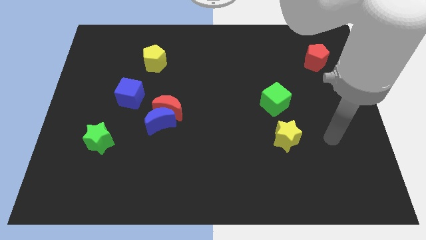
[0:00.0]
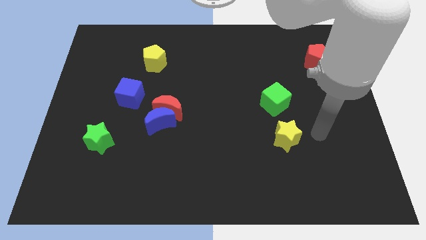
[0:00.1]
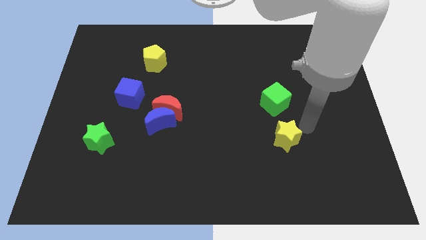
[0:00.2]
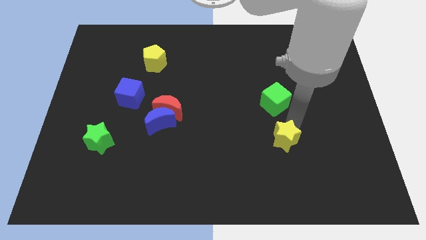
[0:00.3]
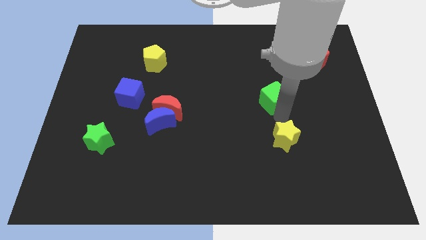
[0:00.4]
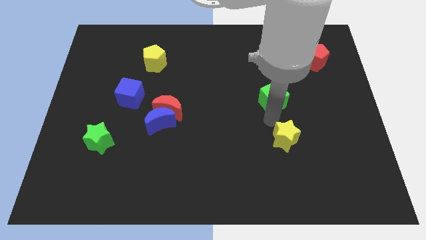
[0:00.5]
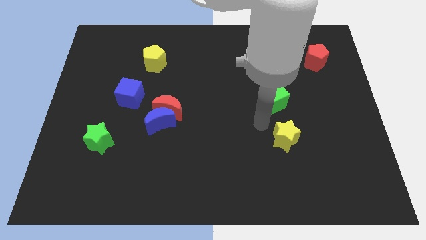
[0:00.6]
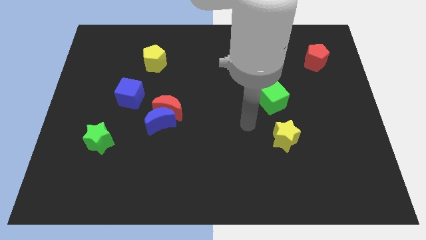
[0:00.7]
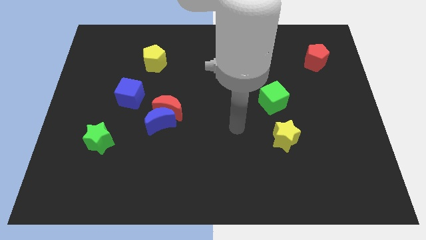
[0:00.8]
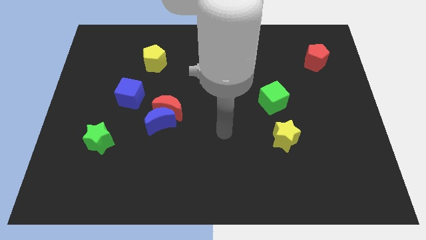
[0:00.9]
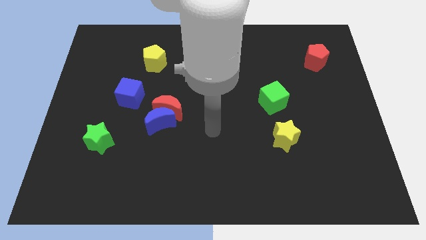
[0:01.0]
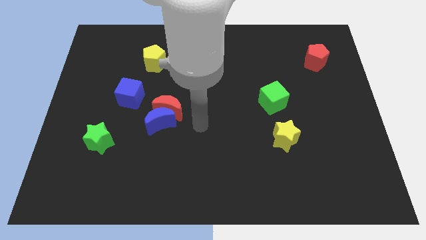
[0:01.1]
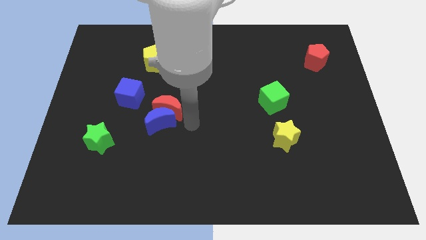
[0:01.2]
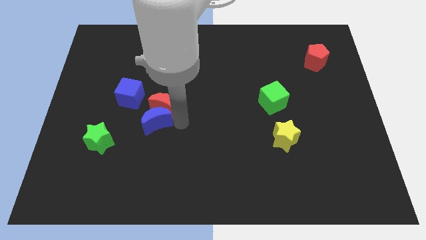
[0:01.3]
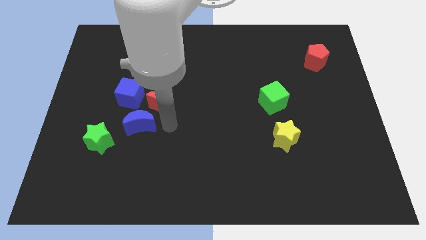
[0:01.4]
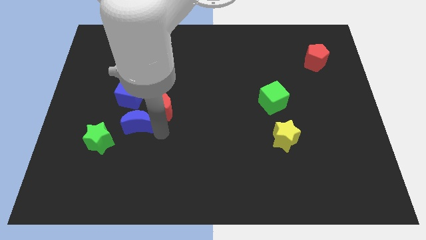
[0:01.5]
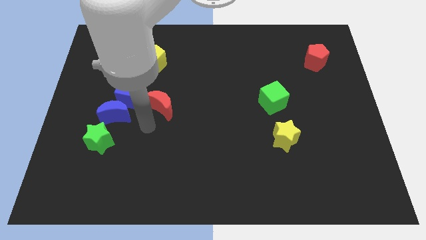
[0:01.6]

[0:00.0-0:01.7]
separate the red moon from the blue moon

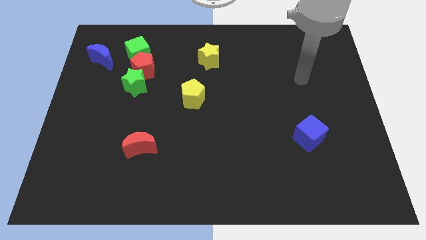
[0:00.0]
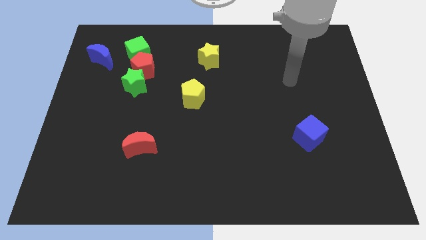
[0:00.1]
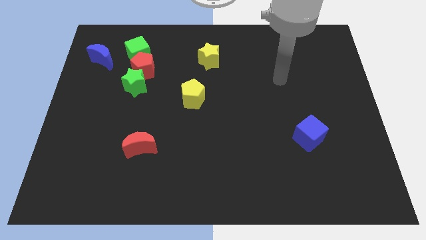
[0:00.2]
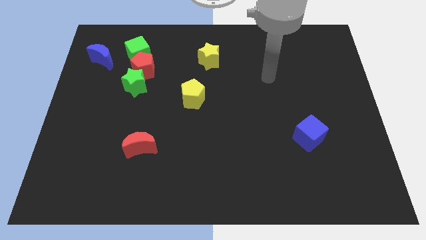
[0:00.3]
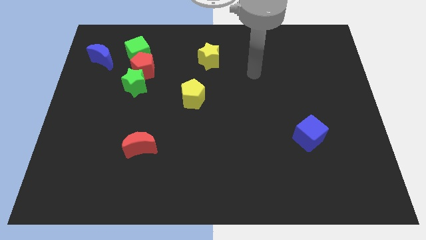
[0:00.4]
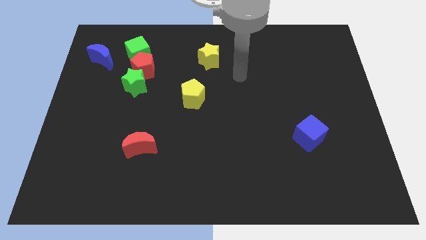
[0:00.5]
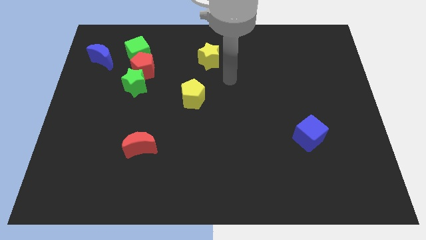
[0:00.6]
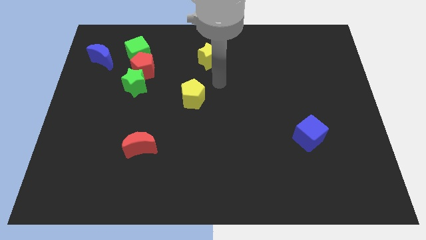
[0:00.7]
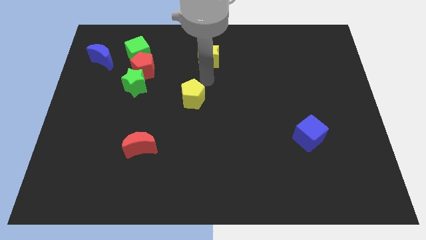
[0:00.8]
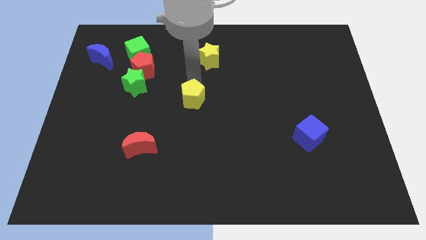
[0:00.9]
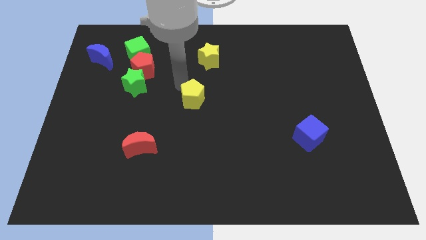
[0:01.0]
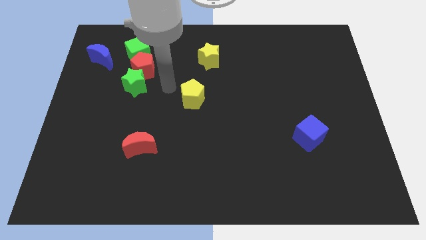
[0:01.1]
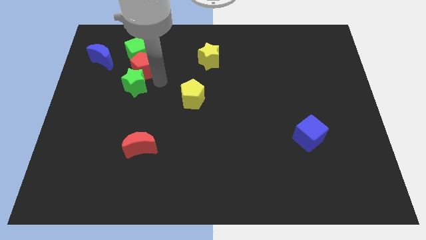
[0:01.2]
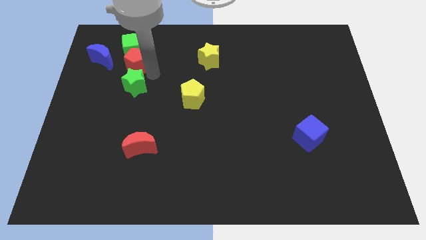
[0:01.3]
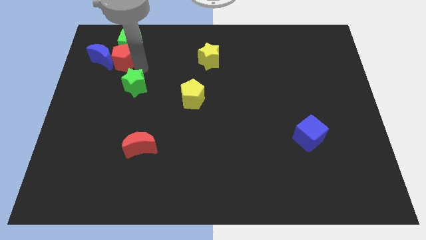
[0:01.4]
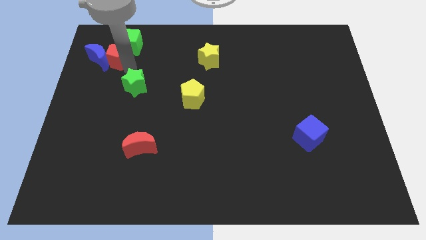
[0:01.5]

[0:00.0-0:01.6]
move the green star away from the red pentagon

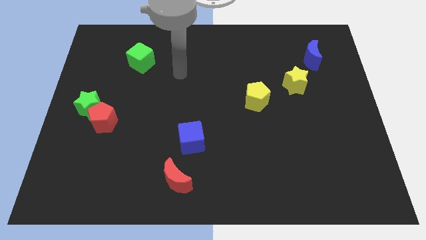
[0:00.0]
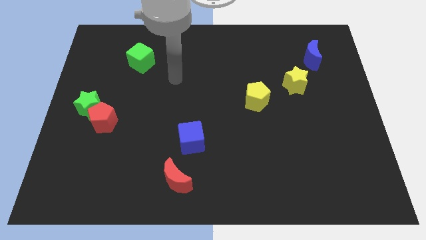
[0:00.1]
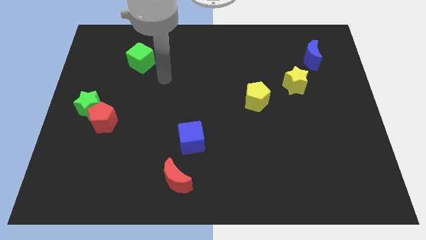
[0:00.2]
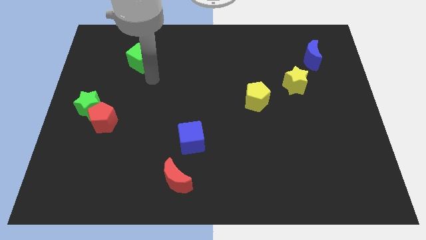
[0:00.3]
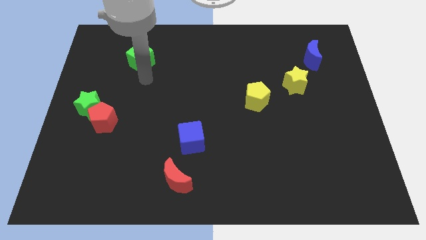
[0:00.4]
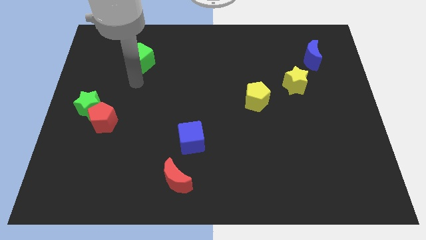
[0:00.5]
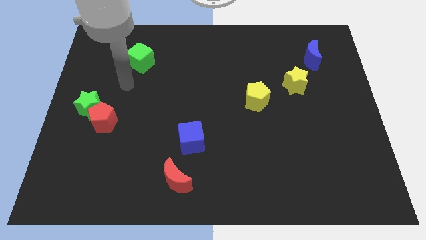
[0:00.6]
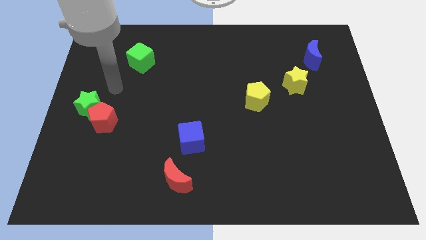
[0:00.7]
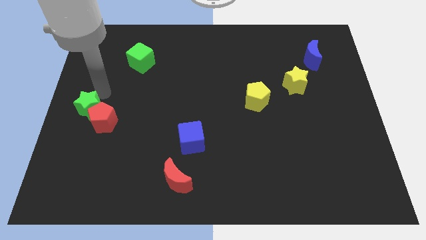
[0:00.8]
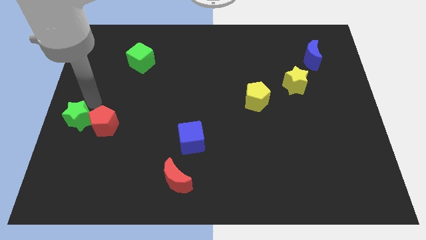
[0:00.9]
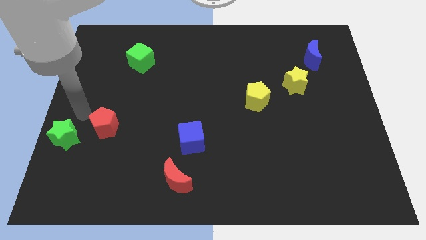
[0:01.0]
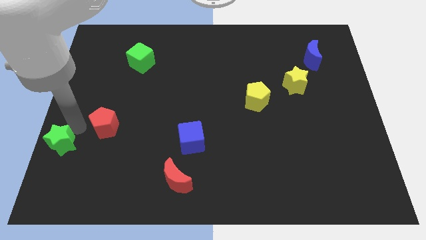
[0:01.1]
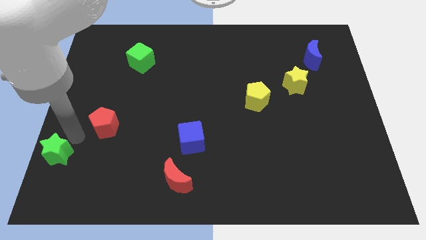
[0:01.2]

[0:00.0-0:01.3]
separate the red pentagon from the green star

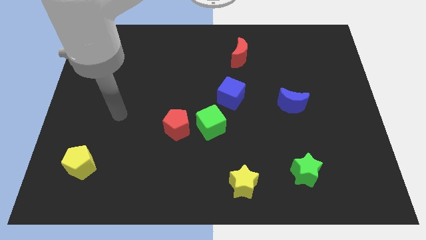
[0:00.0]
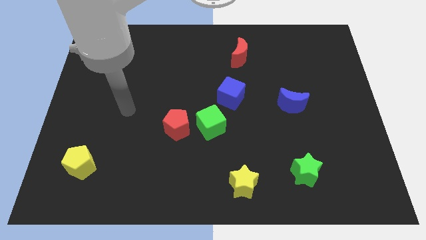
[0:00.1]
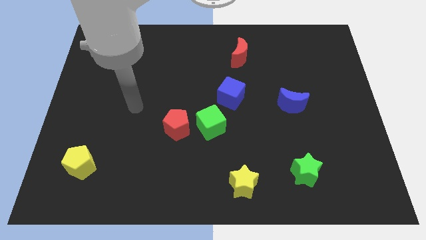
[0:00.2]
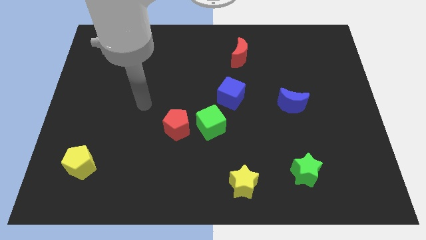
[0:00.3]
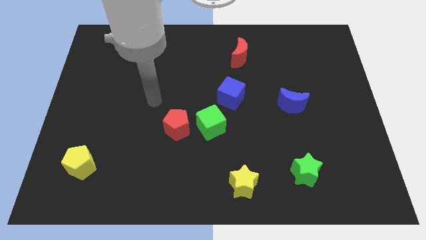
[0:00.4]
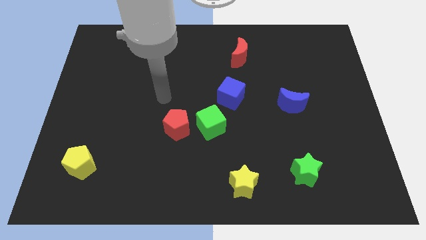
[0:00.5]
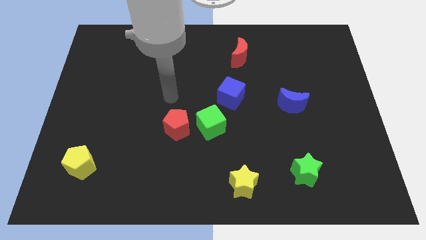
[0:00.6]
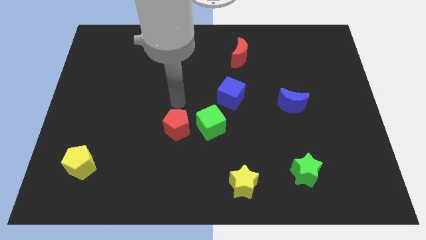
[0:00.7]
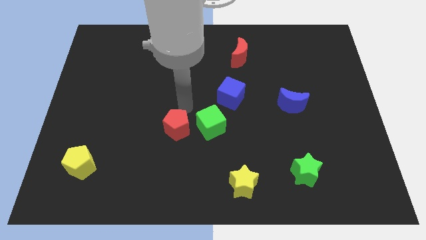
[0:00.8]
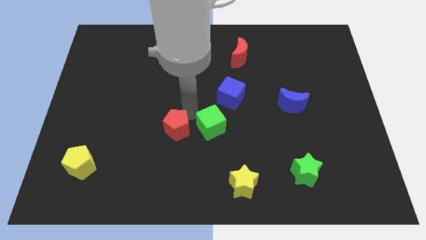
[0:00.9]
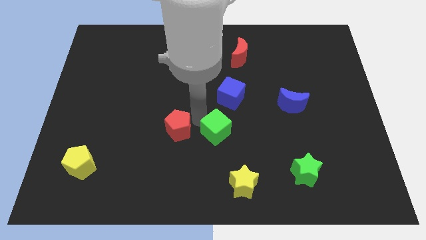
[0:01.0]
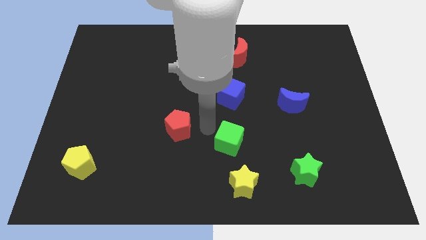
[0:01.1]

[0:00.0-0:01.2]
pull the red pentagon apart from the green cube

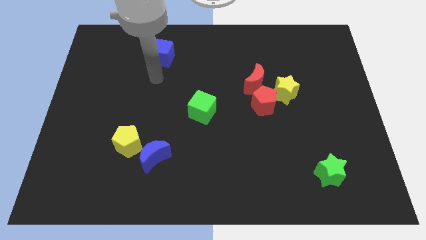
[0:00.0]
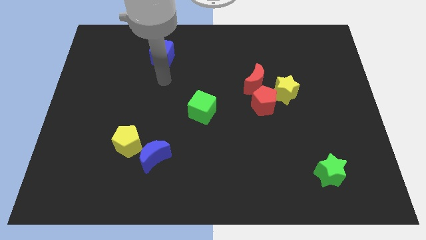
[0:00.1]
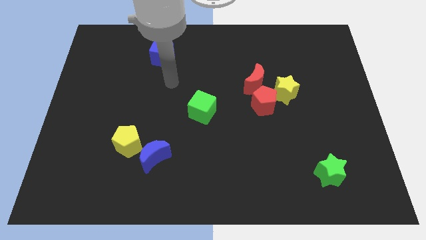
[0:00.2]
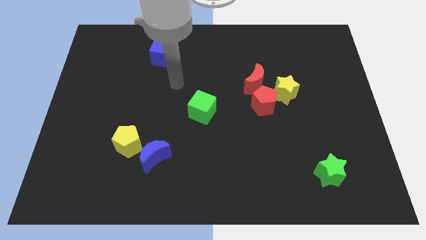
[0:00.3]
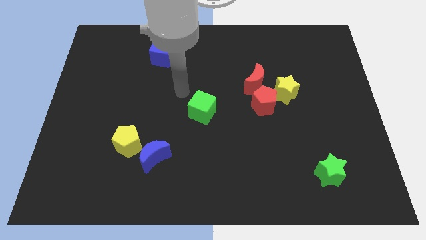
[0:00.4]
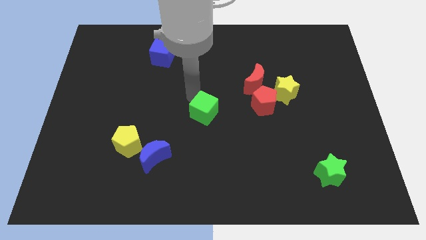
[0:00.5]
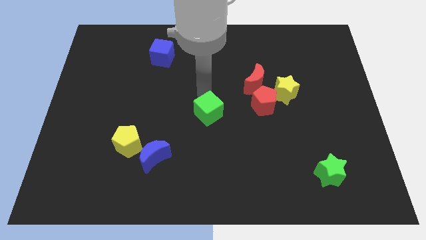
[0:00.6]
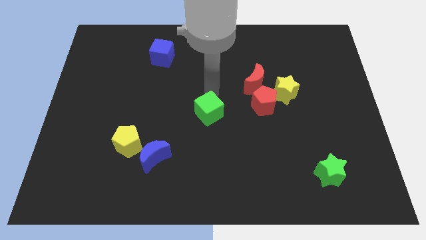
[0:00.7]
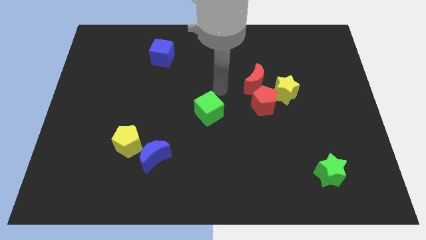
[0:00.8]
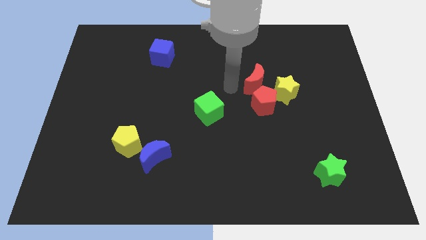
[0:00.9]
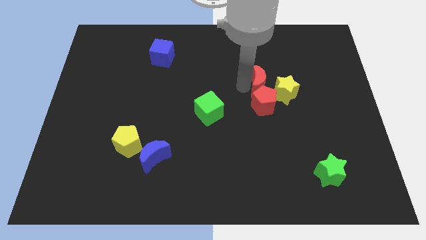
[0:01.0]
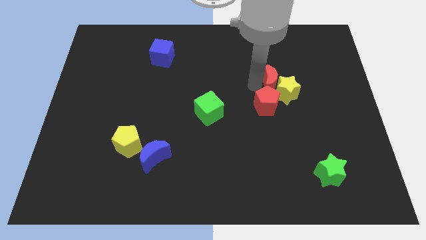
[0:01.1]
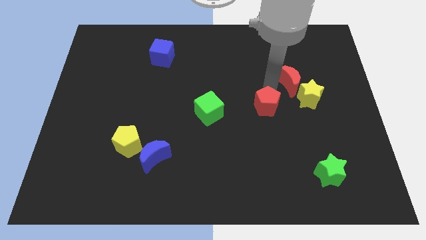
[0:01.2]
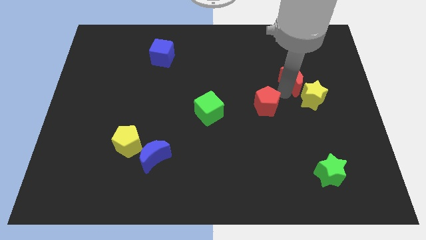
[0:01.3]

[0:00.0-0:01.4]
separate the red pentagon from the yellow star and red moon

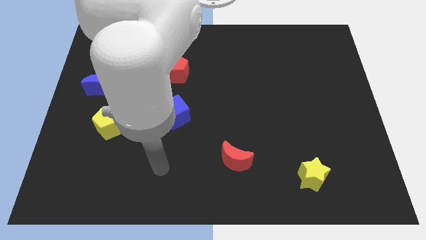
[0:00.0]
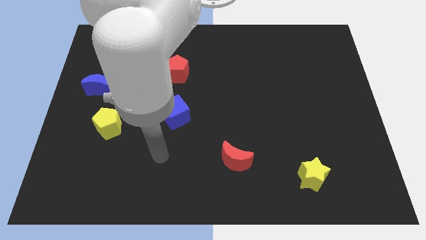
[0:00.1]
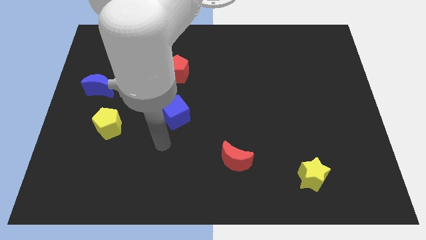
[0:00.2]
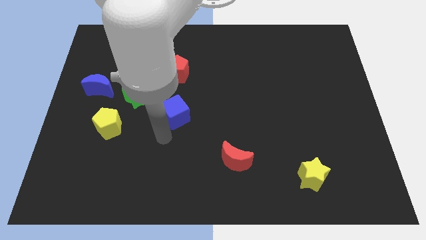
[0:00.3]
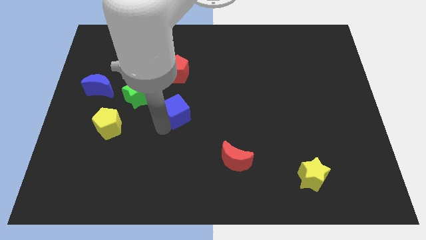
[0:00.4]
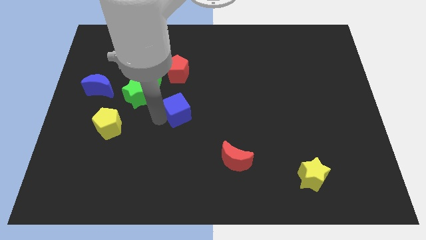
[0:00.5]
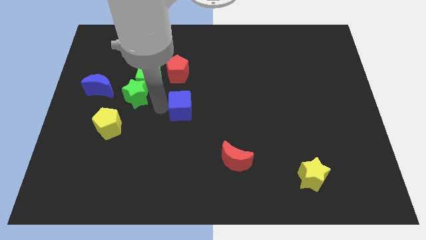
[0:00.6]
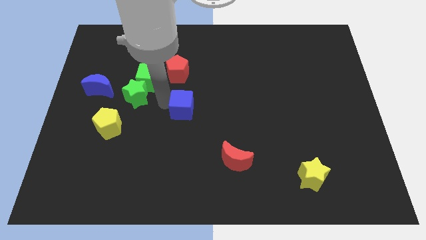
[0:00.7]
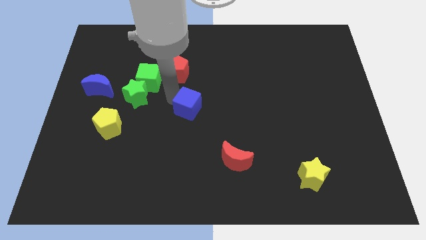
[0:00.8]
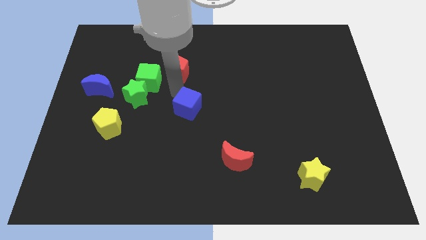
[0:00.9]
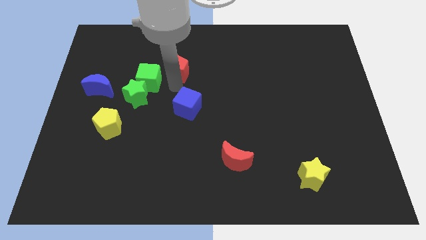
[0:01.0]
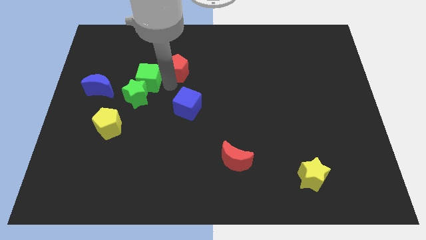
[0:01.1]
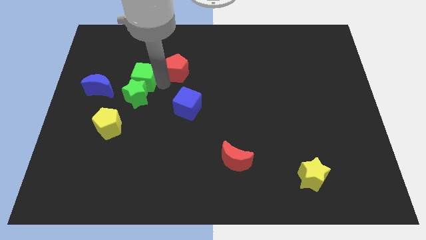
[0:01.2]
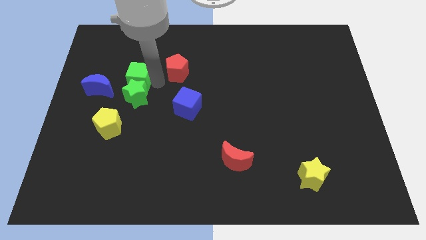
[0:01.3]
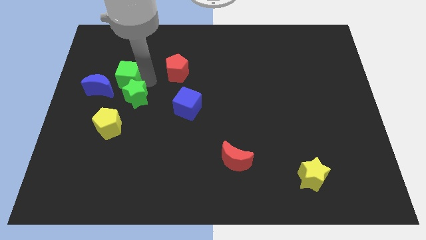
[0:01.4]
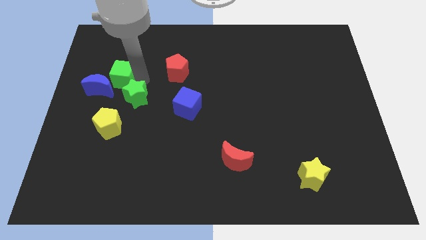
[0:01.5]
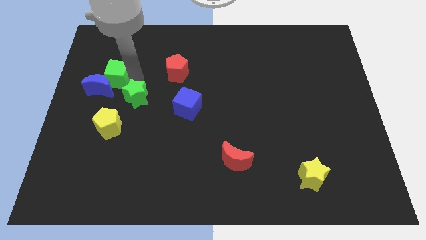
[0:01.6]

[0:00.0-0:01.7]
separate the green cube from the green star and red pentagon

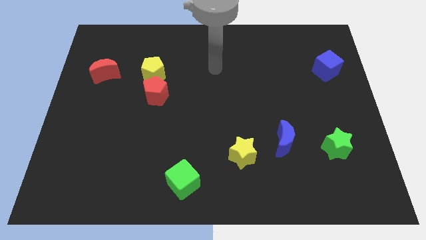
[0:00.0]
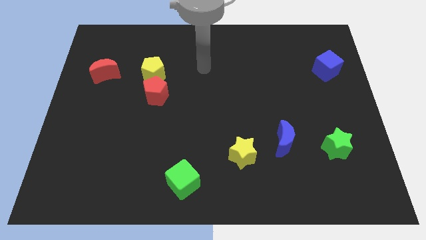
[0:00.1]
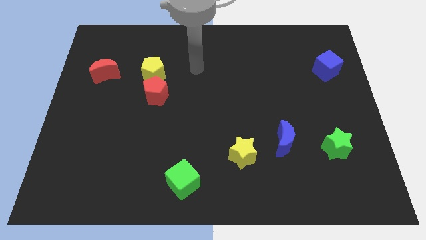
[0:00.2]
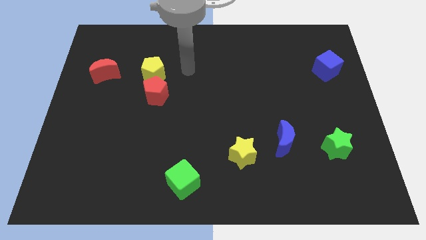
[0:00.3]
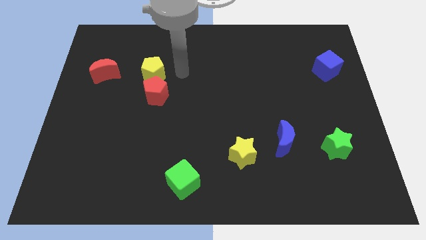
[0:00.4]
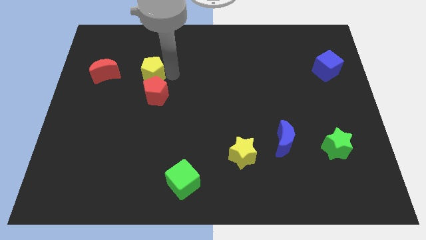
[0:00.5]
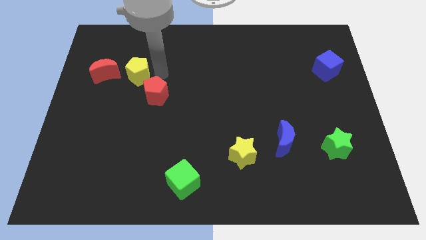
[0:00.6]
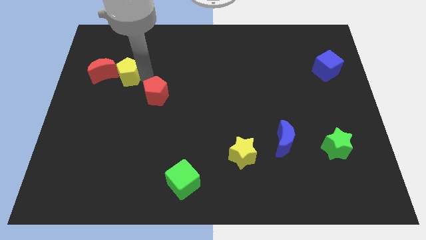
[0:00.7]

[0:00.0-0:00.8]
move the red pentagon away from the yellow pentagon
